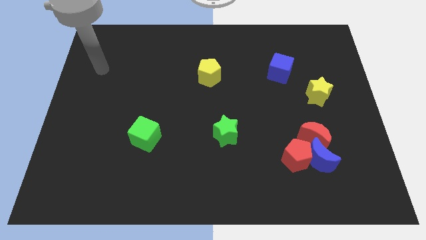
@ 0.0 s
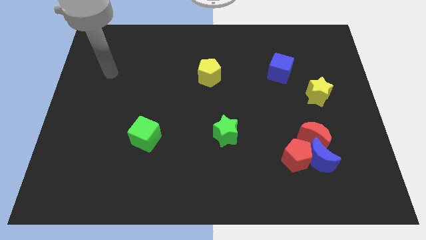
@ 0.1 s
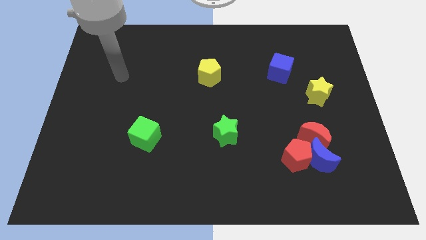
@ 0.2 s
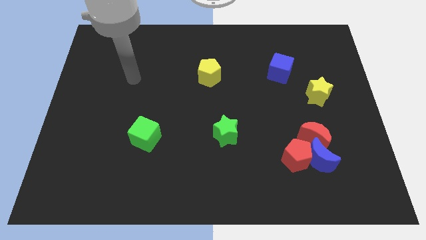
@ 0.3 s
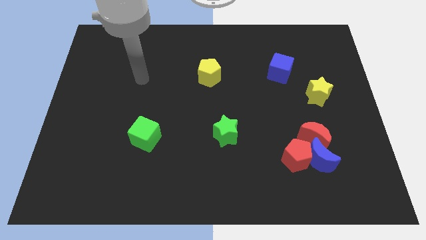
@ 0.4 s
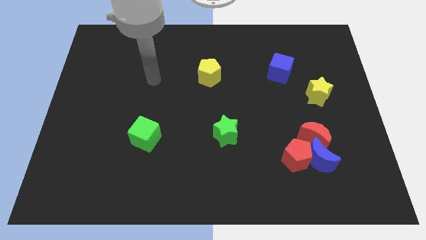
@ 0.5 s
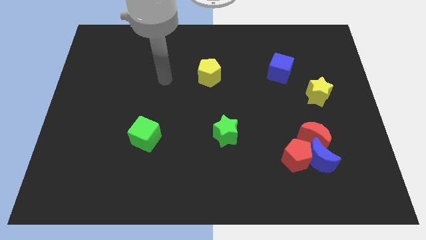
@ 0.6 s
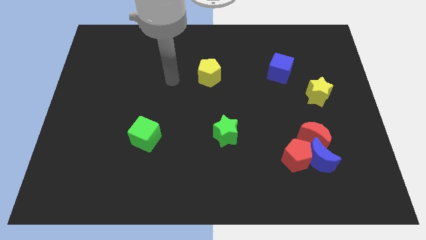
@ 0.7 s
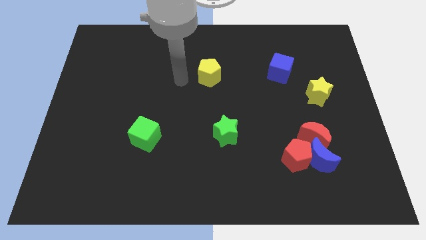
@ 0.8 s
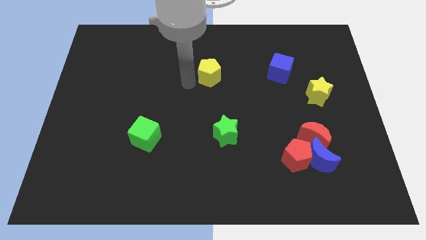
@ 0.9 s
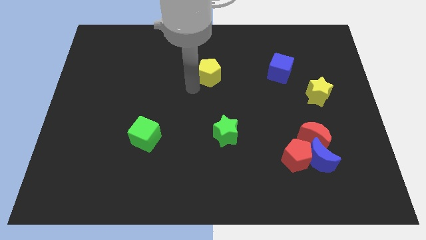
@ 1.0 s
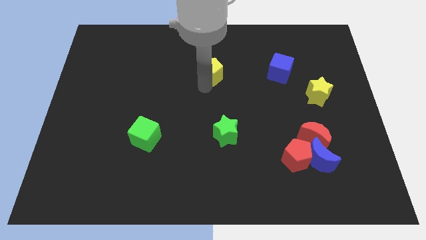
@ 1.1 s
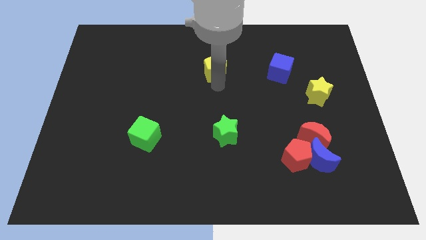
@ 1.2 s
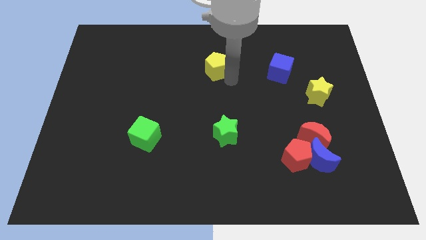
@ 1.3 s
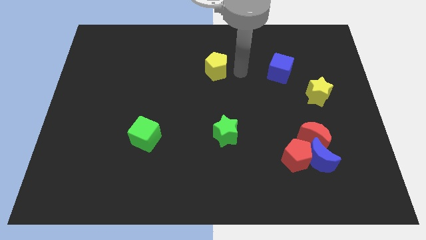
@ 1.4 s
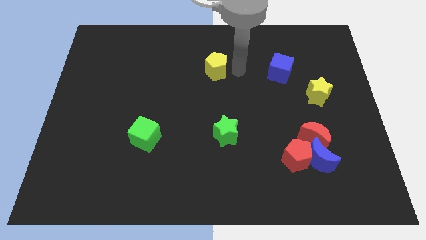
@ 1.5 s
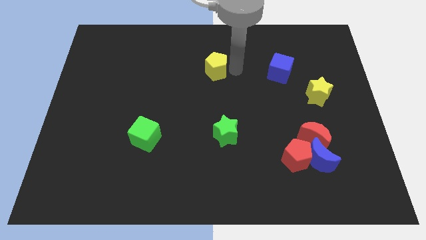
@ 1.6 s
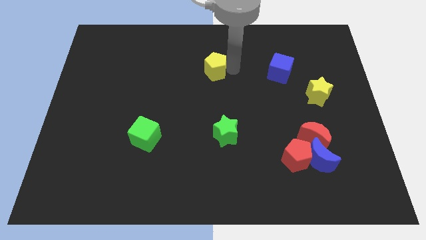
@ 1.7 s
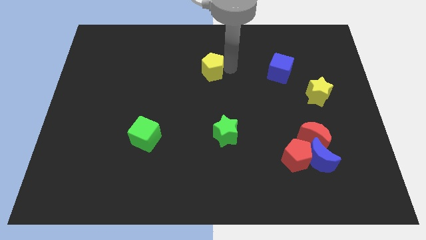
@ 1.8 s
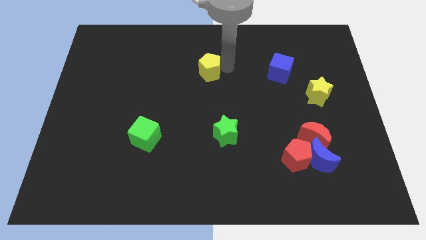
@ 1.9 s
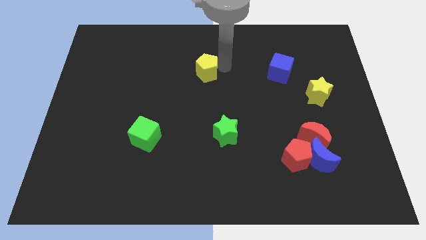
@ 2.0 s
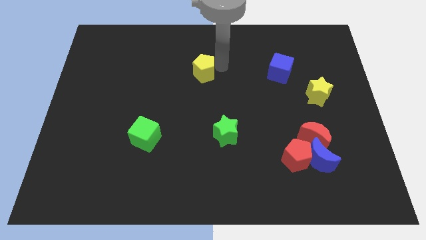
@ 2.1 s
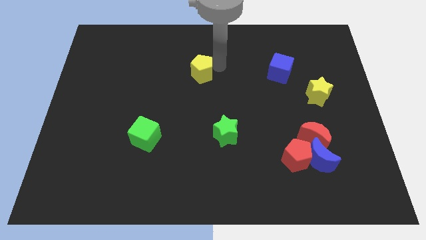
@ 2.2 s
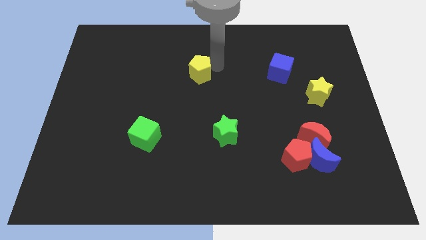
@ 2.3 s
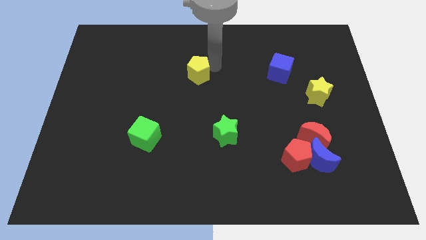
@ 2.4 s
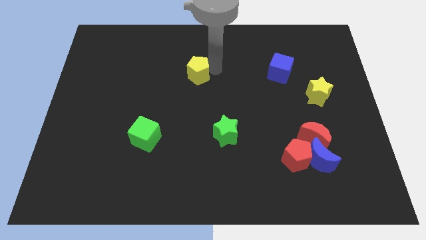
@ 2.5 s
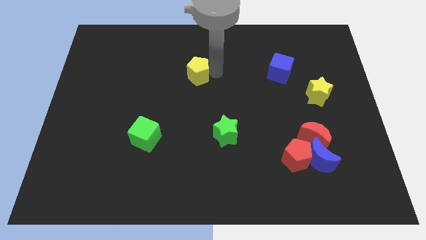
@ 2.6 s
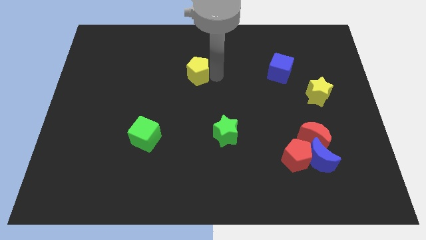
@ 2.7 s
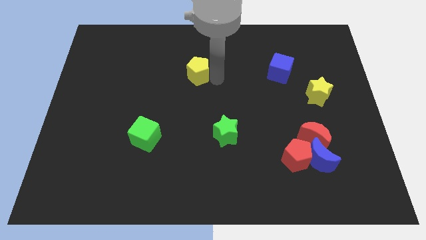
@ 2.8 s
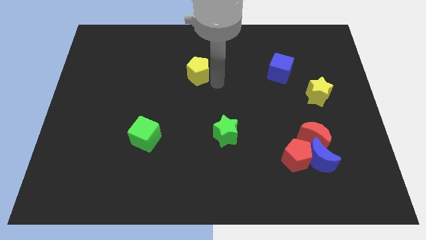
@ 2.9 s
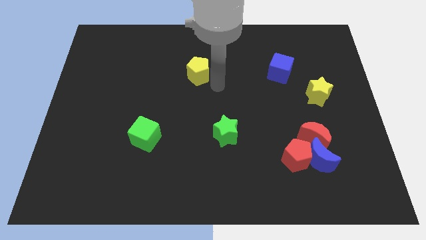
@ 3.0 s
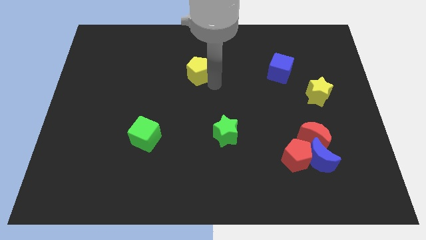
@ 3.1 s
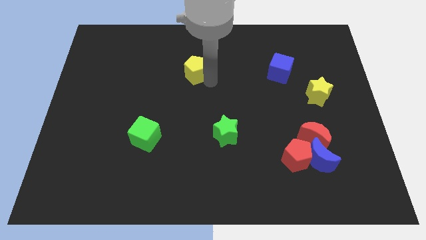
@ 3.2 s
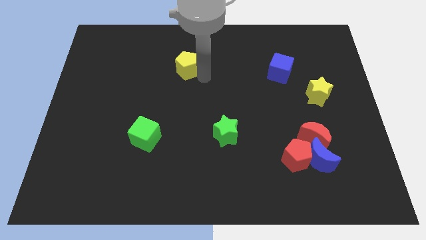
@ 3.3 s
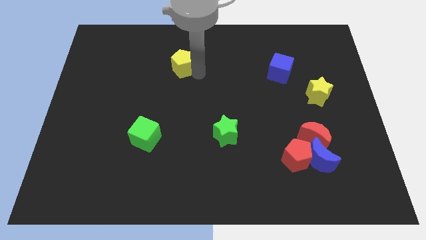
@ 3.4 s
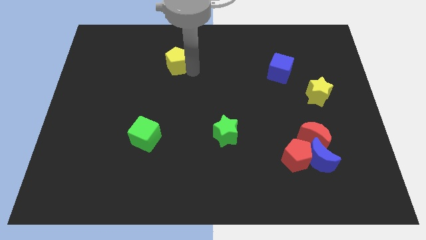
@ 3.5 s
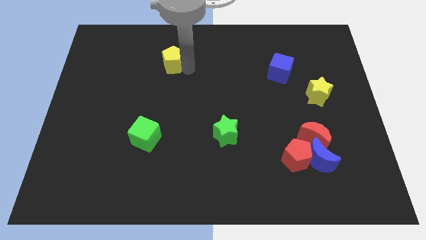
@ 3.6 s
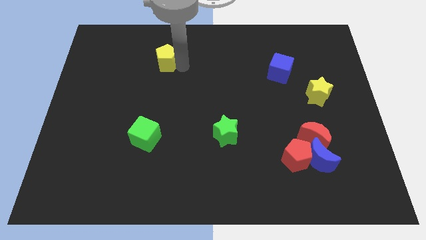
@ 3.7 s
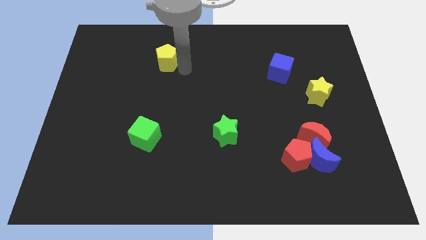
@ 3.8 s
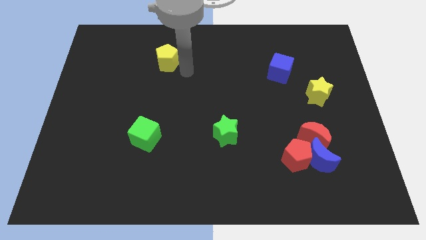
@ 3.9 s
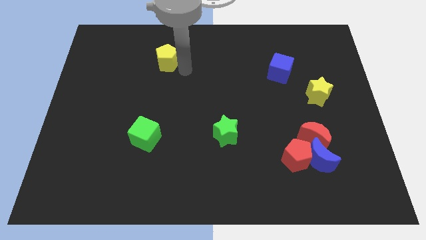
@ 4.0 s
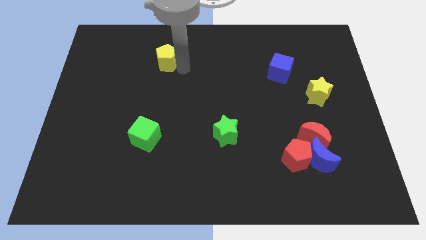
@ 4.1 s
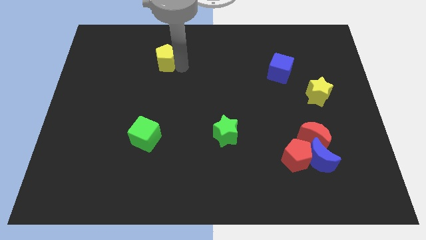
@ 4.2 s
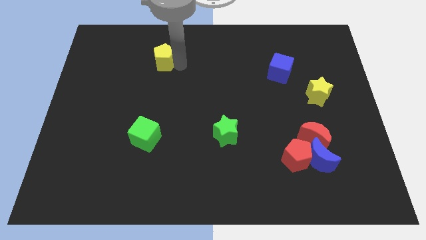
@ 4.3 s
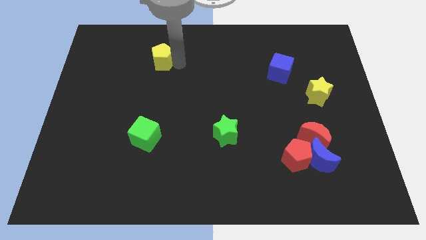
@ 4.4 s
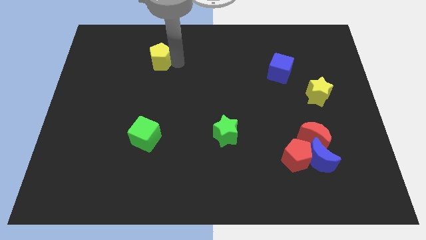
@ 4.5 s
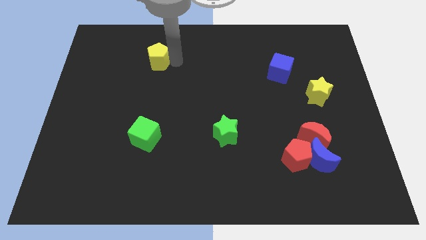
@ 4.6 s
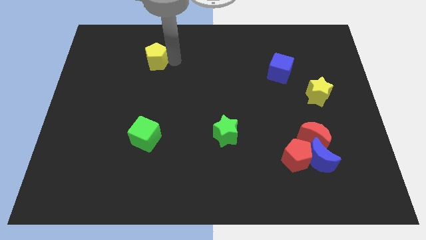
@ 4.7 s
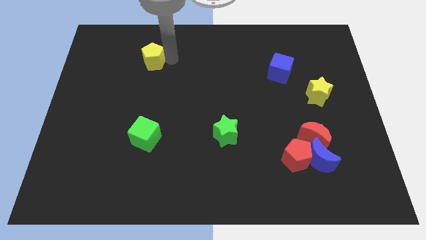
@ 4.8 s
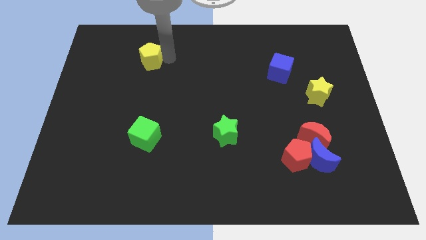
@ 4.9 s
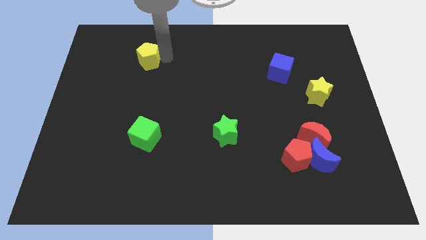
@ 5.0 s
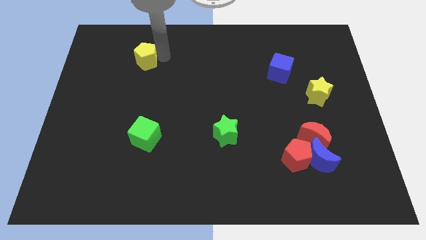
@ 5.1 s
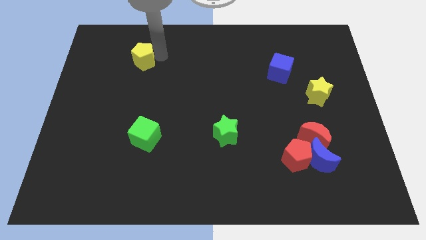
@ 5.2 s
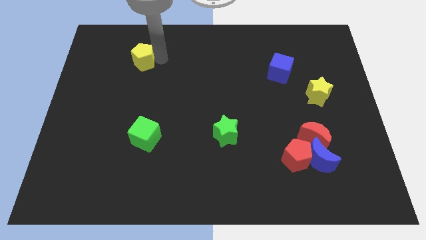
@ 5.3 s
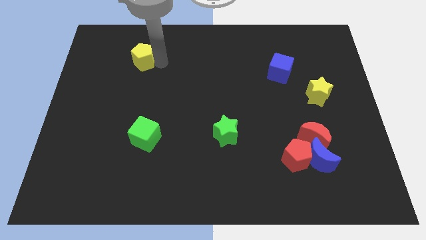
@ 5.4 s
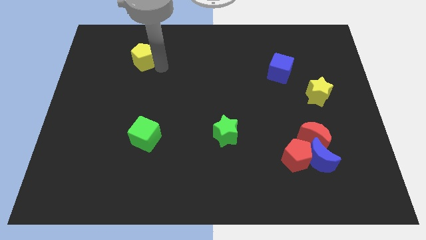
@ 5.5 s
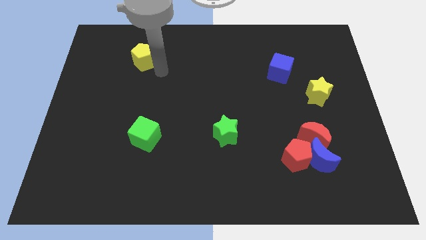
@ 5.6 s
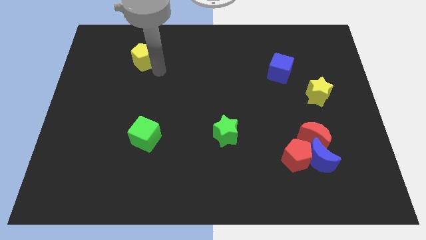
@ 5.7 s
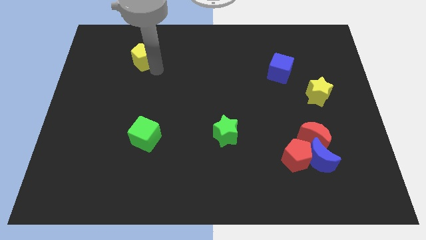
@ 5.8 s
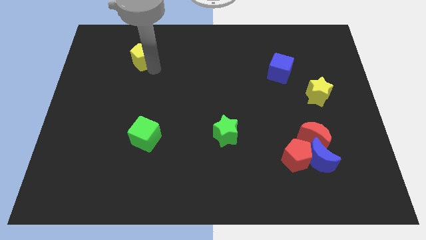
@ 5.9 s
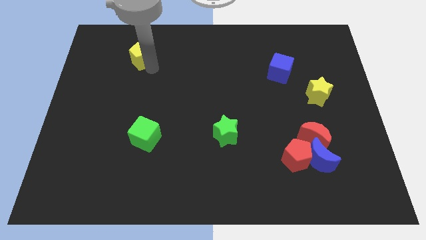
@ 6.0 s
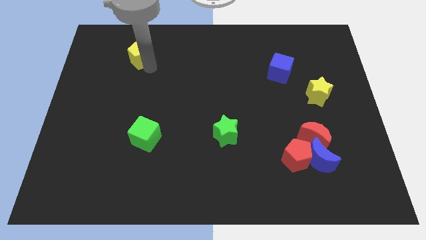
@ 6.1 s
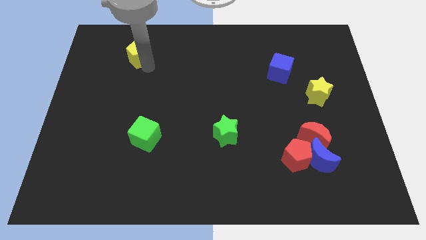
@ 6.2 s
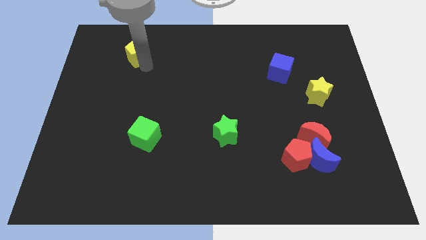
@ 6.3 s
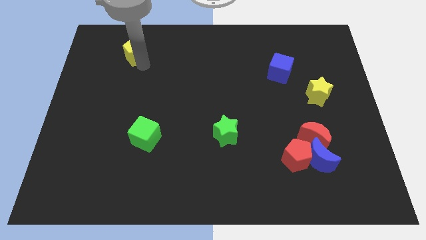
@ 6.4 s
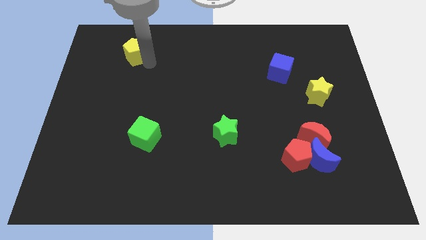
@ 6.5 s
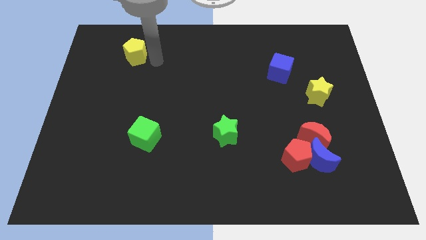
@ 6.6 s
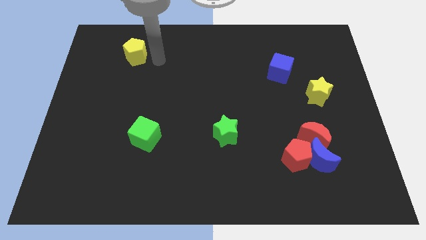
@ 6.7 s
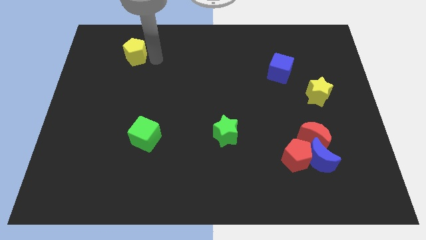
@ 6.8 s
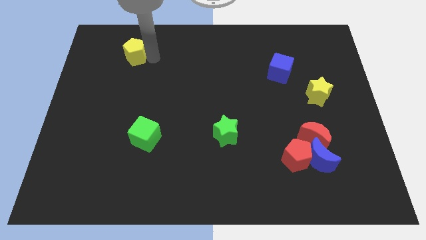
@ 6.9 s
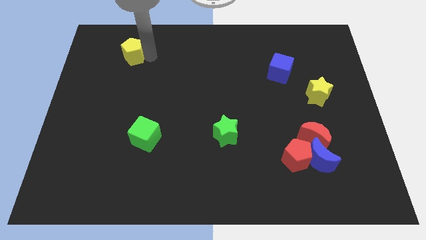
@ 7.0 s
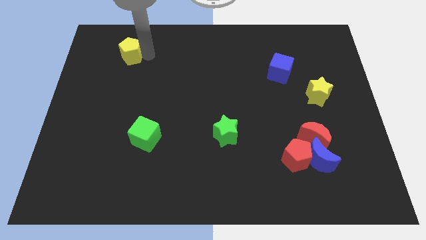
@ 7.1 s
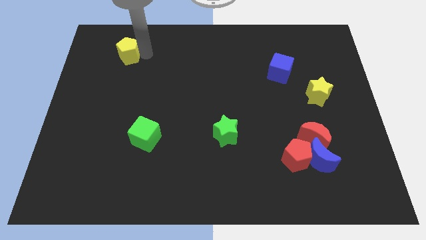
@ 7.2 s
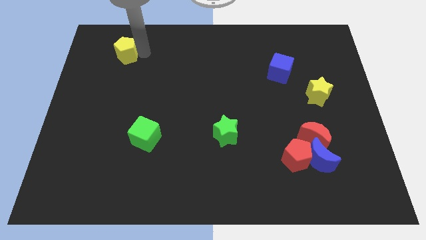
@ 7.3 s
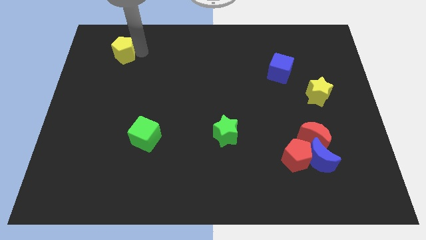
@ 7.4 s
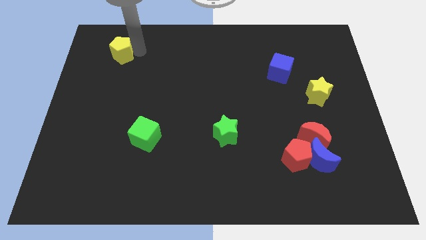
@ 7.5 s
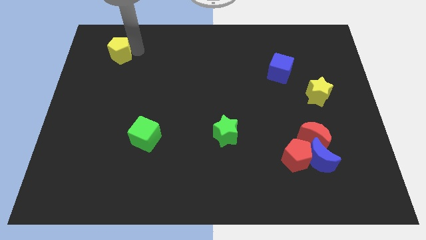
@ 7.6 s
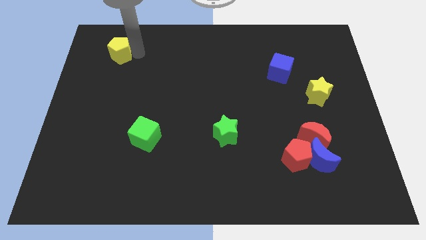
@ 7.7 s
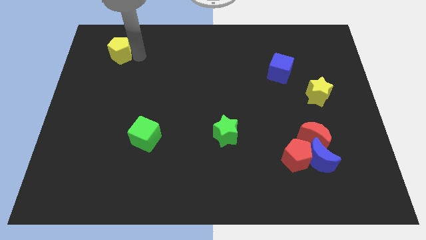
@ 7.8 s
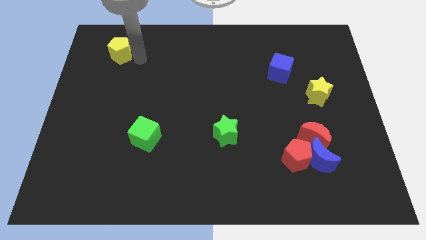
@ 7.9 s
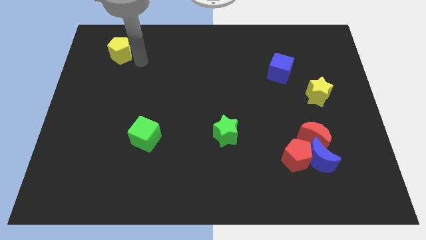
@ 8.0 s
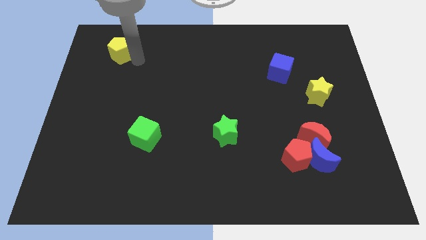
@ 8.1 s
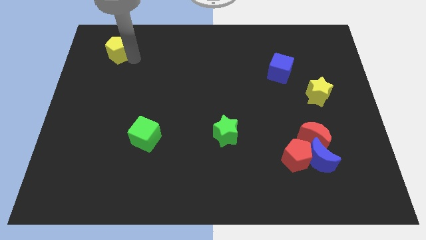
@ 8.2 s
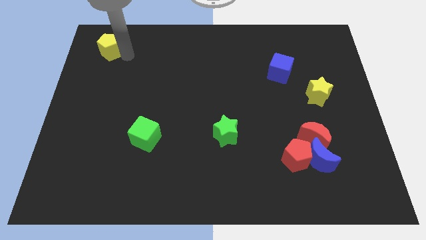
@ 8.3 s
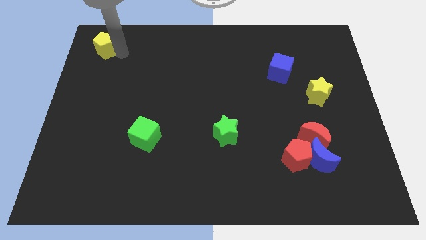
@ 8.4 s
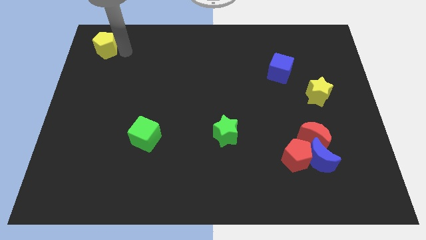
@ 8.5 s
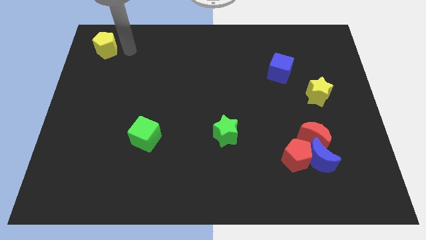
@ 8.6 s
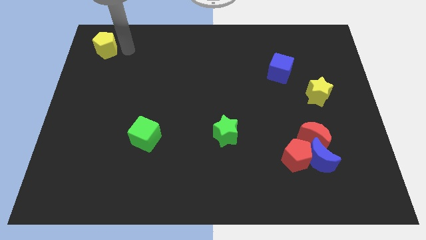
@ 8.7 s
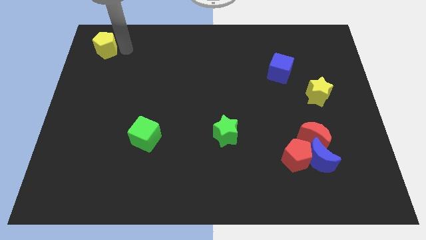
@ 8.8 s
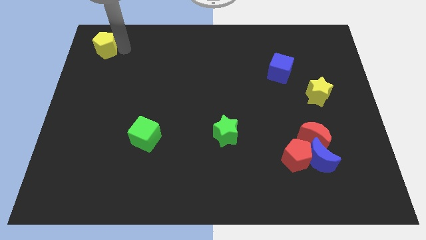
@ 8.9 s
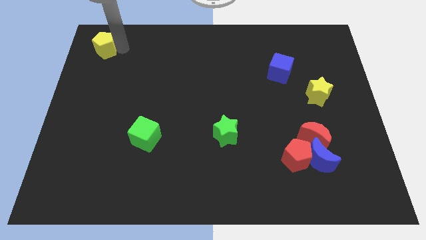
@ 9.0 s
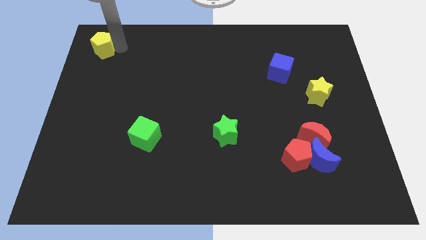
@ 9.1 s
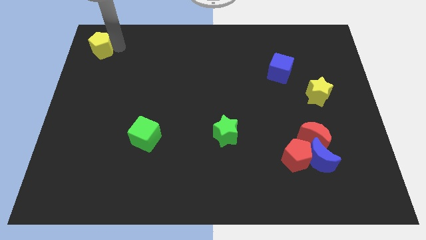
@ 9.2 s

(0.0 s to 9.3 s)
put the yellow pentagon to the top left corner
